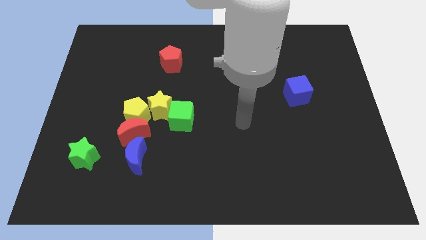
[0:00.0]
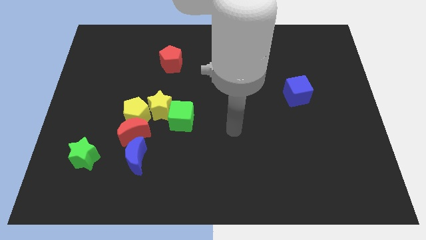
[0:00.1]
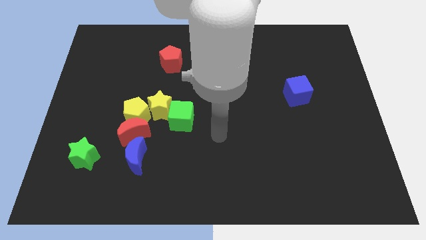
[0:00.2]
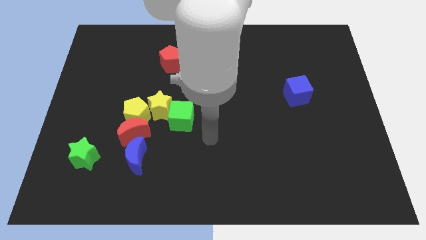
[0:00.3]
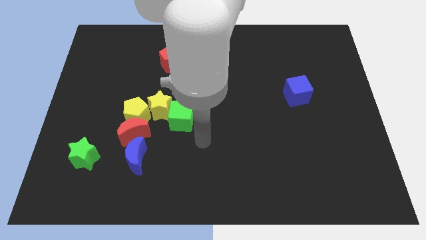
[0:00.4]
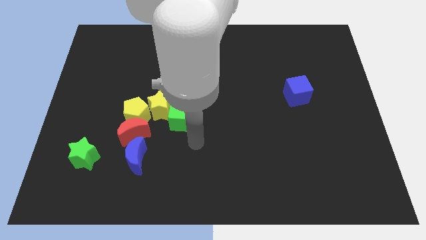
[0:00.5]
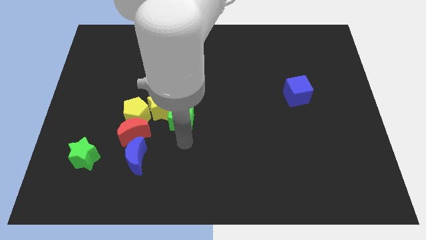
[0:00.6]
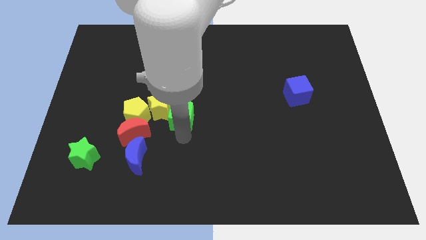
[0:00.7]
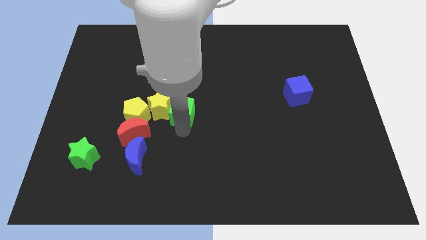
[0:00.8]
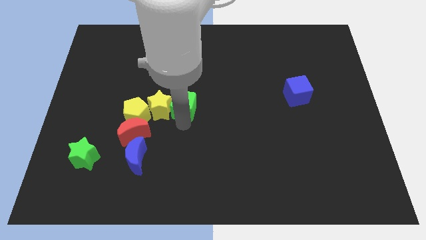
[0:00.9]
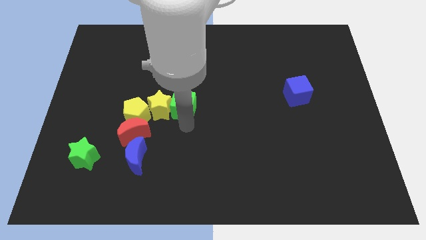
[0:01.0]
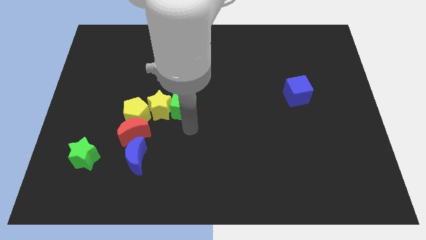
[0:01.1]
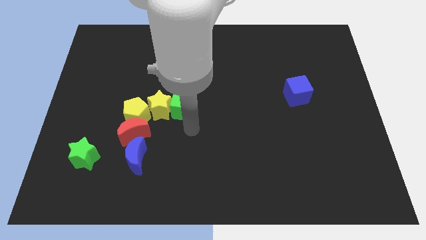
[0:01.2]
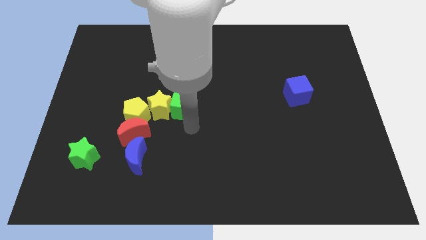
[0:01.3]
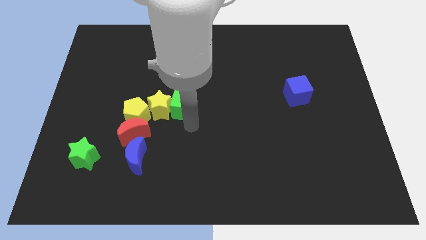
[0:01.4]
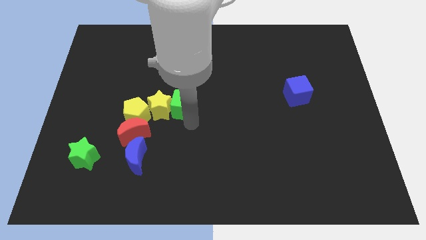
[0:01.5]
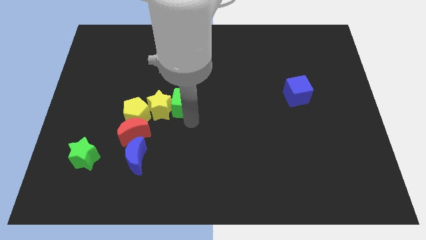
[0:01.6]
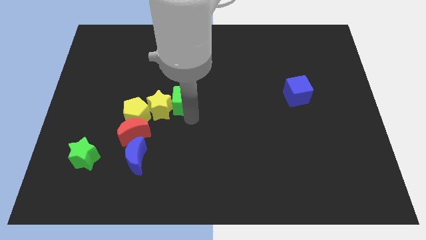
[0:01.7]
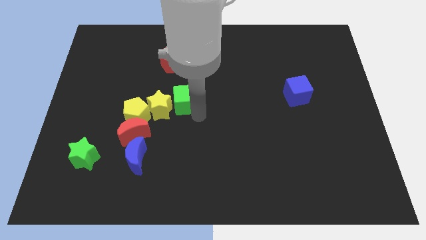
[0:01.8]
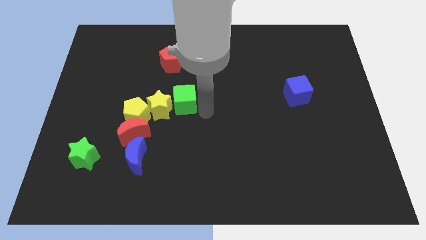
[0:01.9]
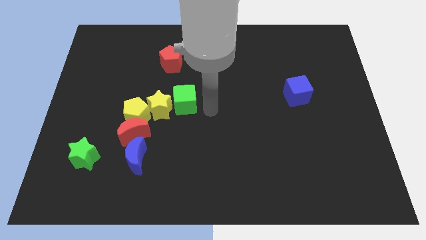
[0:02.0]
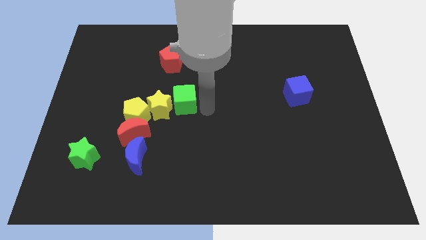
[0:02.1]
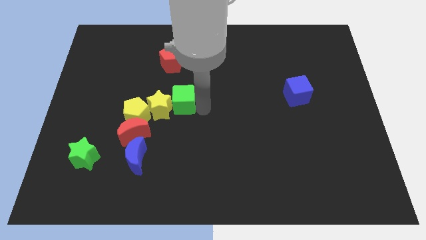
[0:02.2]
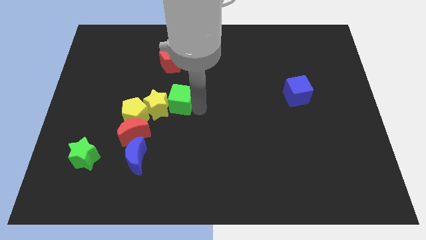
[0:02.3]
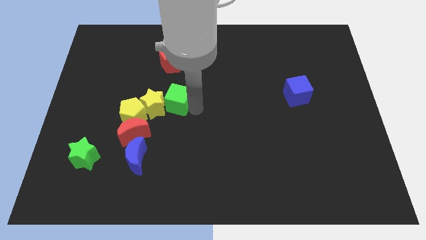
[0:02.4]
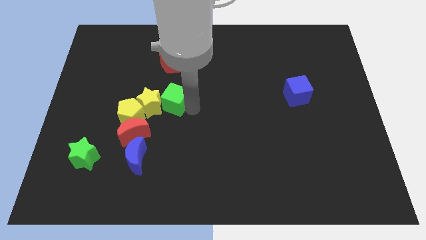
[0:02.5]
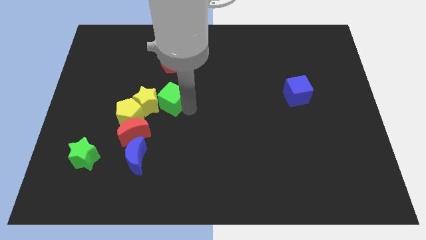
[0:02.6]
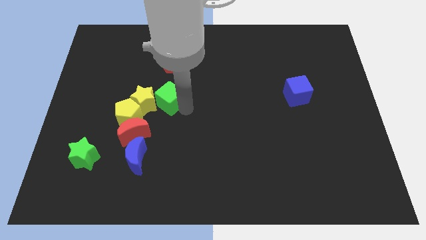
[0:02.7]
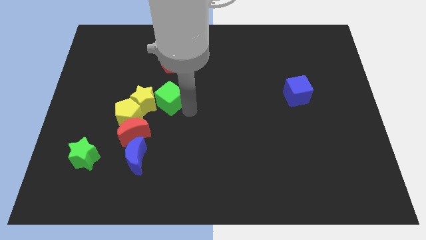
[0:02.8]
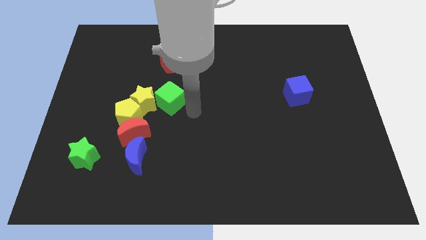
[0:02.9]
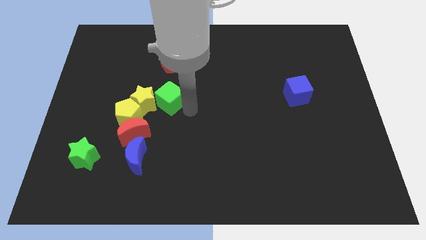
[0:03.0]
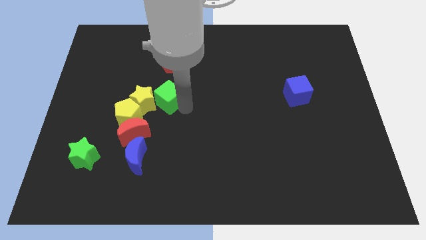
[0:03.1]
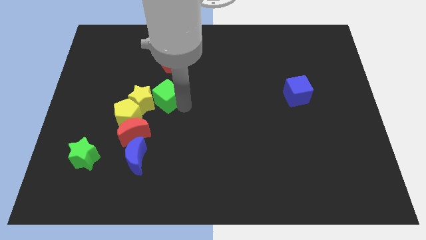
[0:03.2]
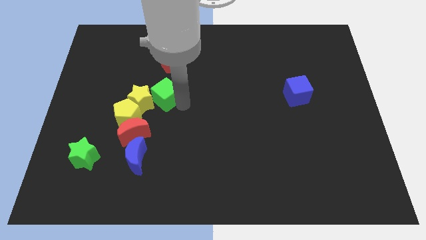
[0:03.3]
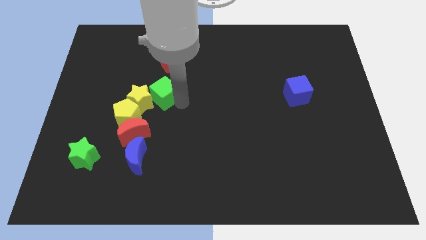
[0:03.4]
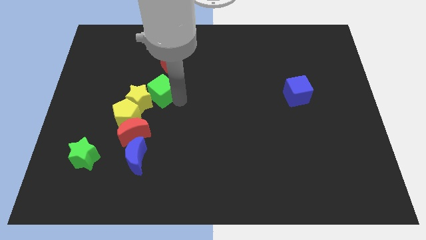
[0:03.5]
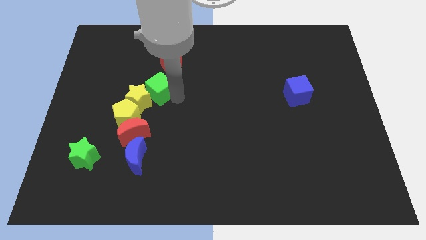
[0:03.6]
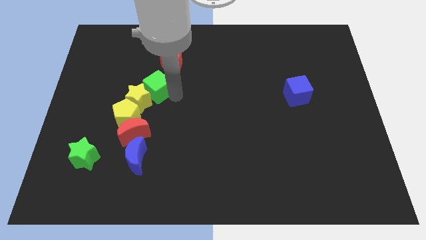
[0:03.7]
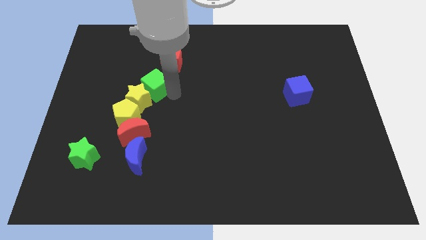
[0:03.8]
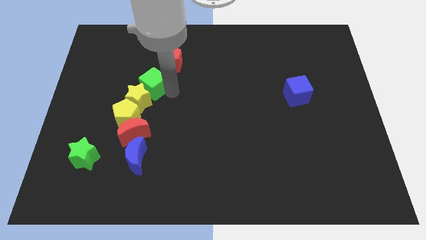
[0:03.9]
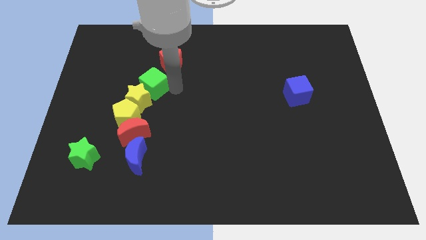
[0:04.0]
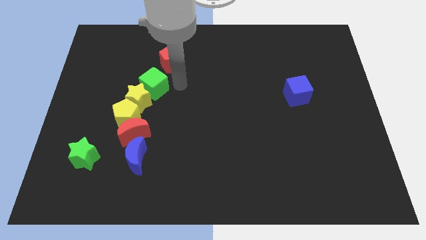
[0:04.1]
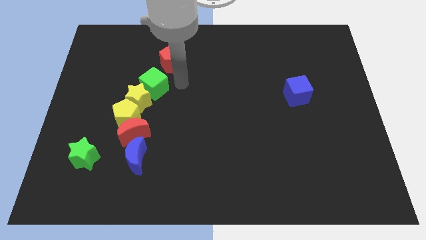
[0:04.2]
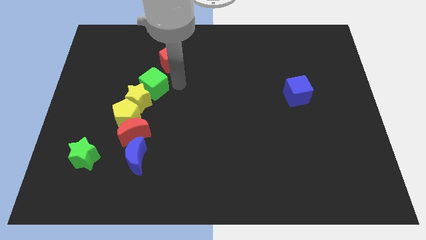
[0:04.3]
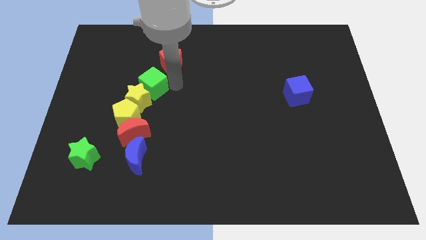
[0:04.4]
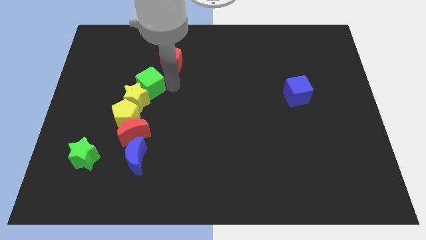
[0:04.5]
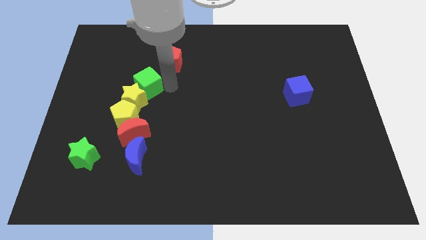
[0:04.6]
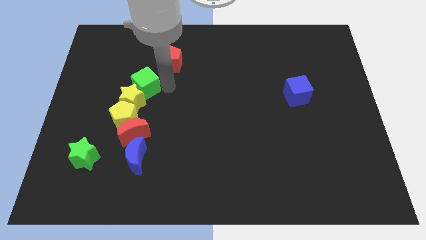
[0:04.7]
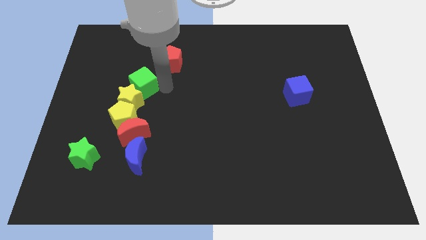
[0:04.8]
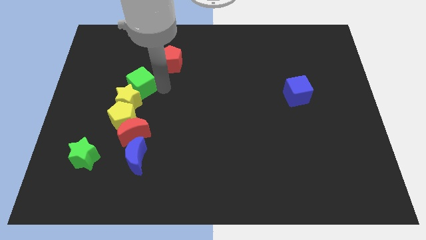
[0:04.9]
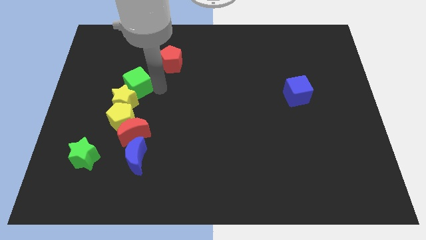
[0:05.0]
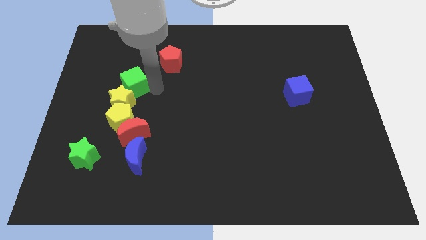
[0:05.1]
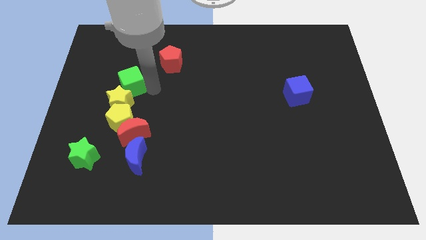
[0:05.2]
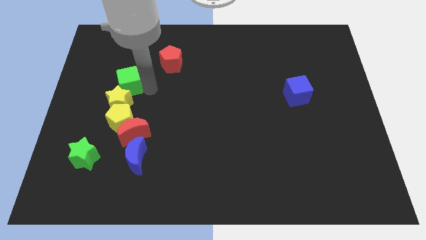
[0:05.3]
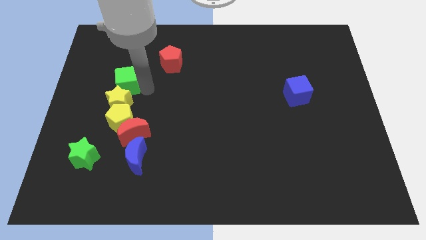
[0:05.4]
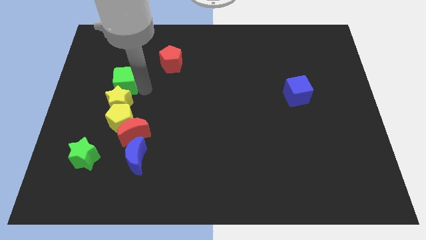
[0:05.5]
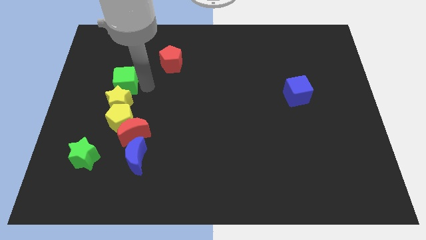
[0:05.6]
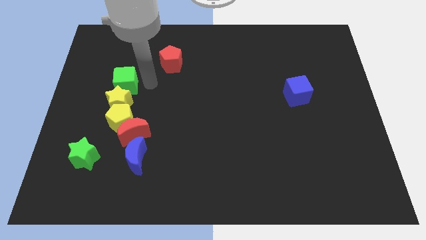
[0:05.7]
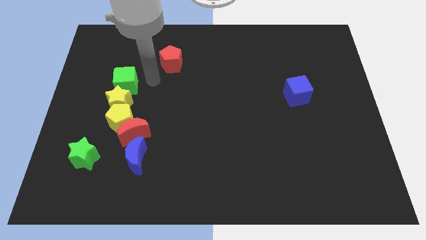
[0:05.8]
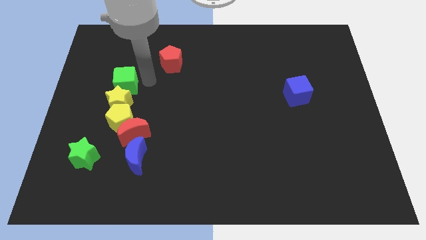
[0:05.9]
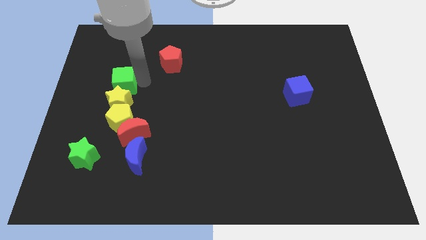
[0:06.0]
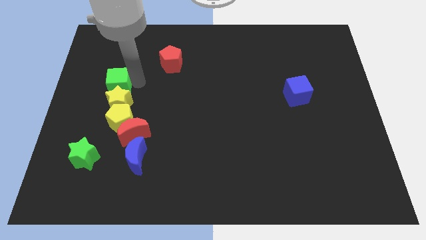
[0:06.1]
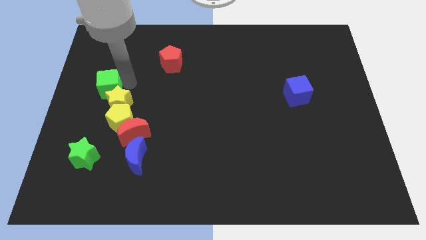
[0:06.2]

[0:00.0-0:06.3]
slide the green cube to the left side

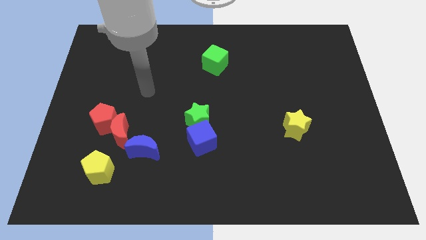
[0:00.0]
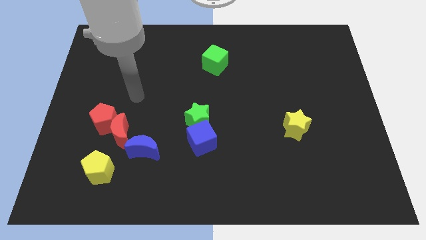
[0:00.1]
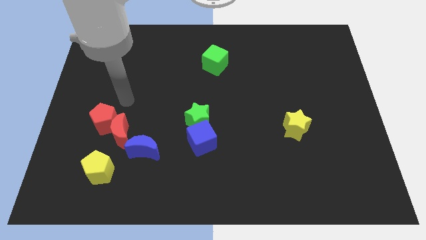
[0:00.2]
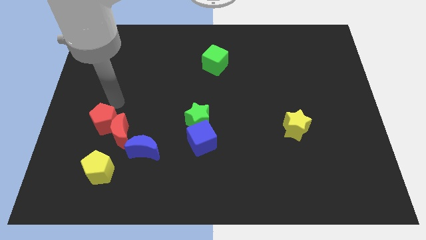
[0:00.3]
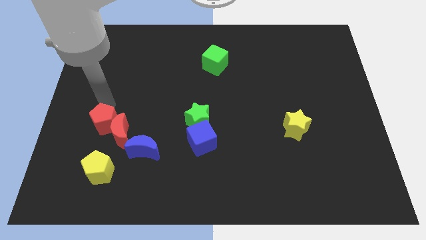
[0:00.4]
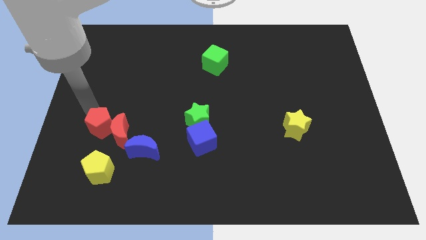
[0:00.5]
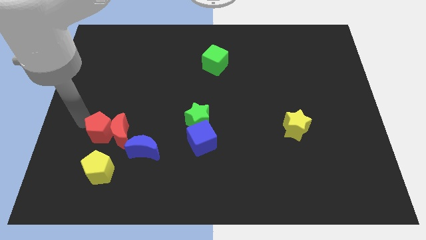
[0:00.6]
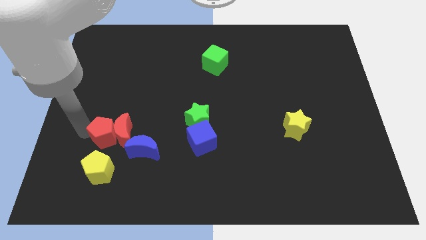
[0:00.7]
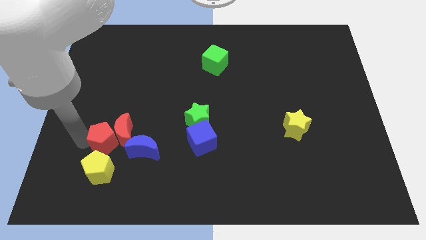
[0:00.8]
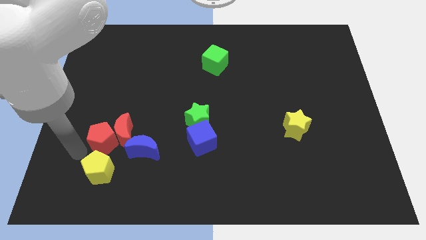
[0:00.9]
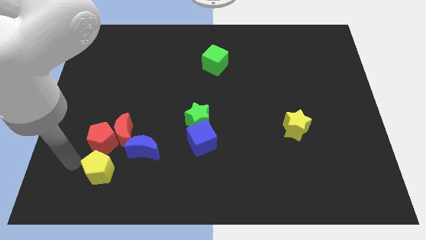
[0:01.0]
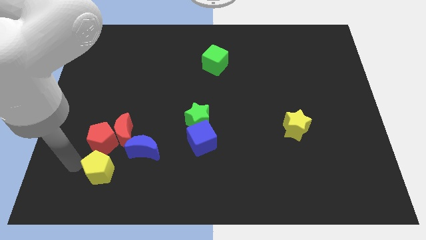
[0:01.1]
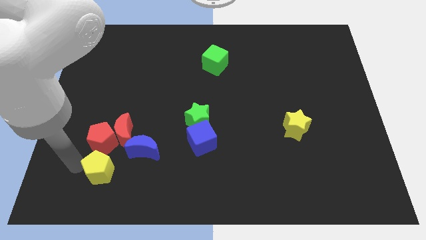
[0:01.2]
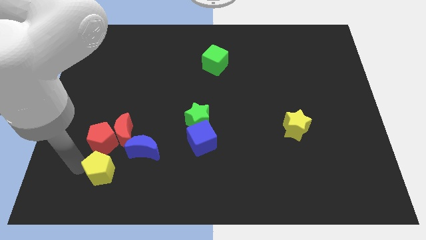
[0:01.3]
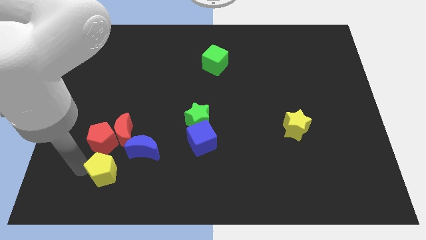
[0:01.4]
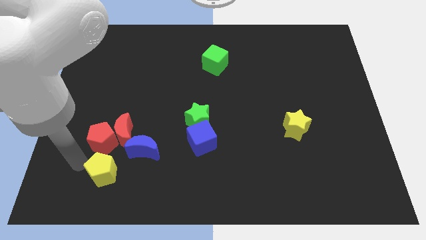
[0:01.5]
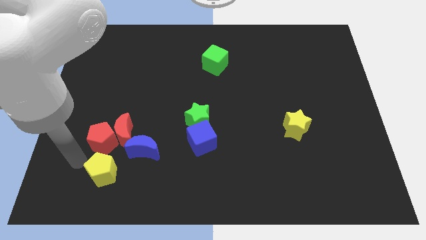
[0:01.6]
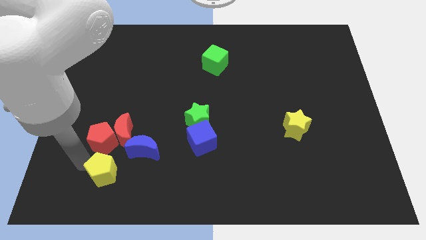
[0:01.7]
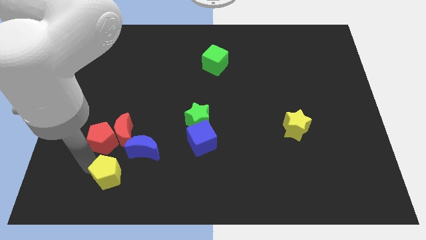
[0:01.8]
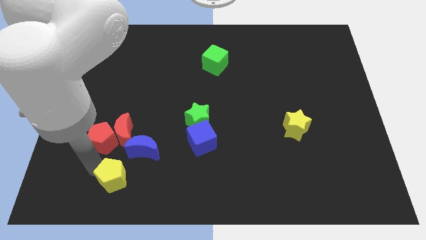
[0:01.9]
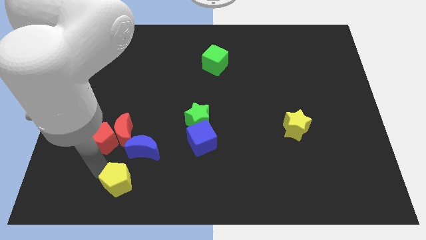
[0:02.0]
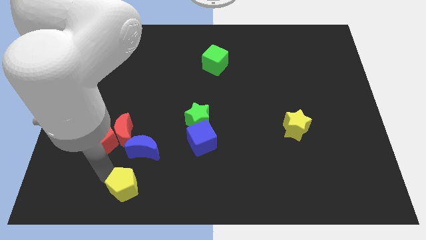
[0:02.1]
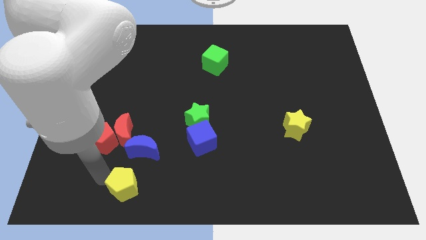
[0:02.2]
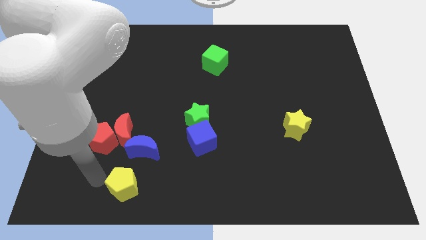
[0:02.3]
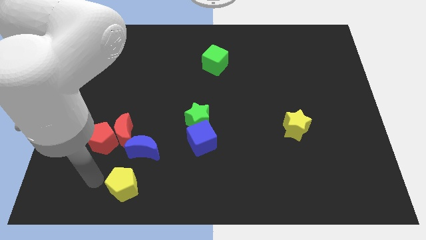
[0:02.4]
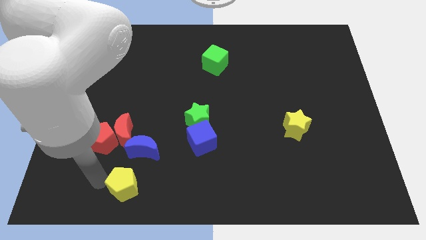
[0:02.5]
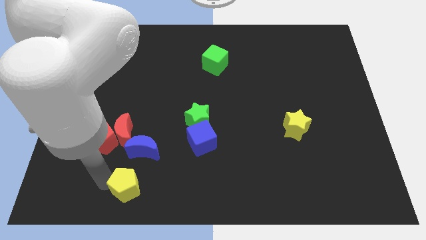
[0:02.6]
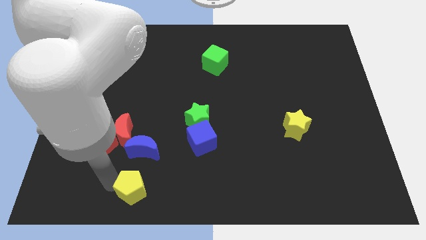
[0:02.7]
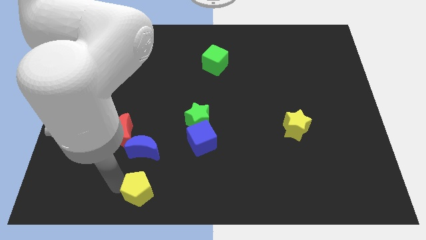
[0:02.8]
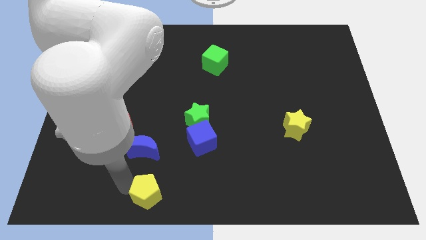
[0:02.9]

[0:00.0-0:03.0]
push the yellow pentagon to the bottom side
